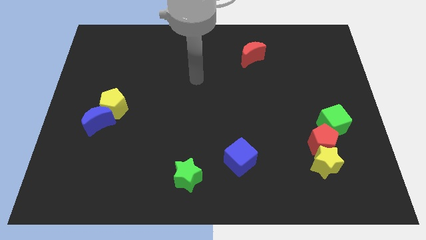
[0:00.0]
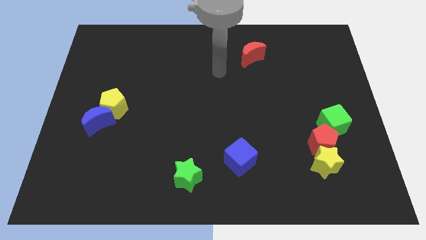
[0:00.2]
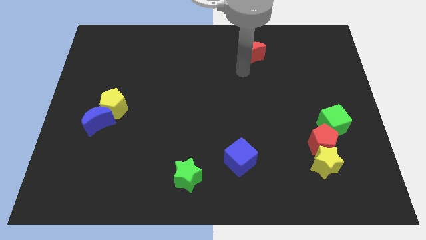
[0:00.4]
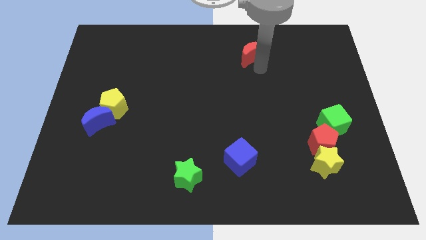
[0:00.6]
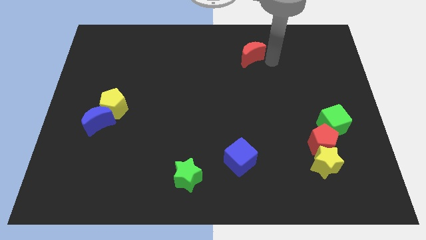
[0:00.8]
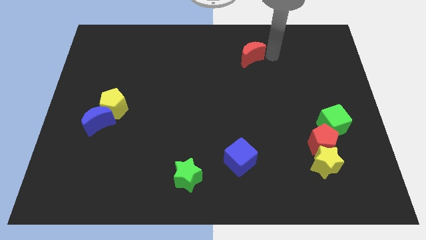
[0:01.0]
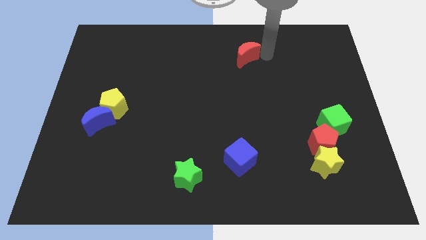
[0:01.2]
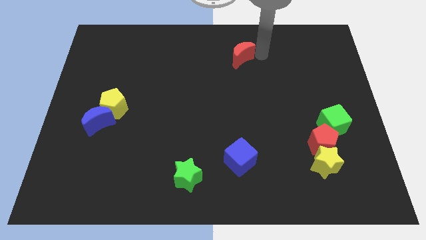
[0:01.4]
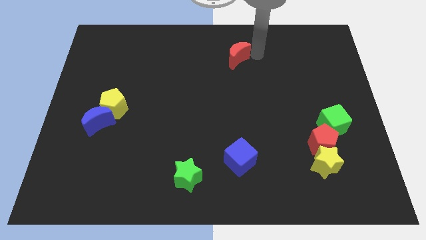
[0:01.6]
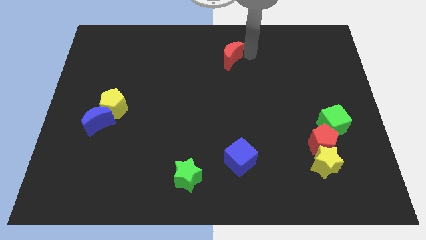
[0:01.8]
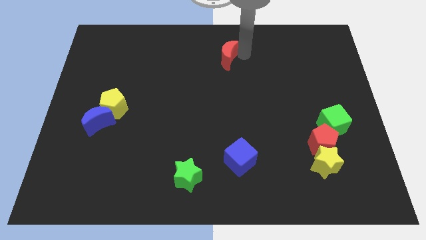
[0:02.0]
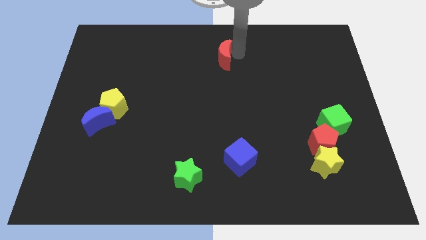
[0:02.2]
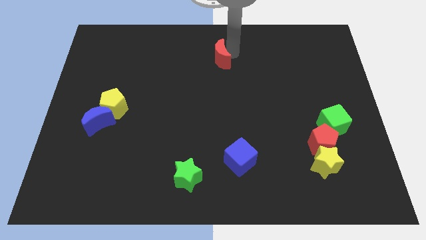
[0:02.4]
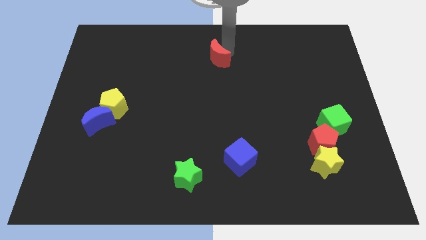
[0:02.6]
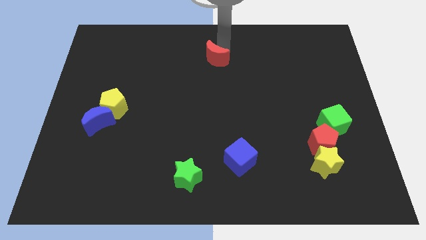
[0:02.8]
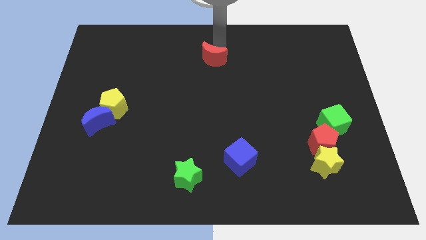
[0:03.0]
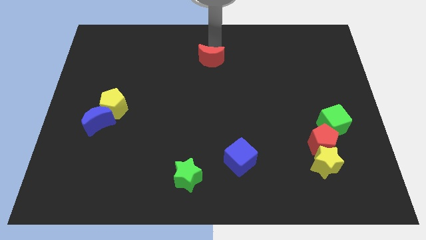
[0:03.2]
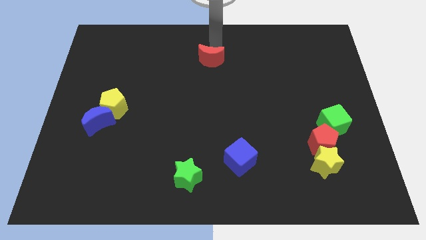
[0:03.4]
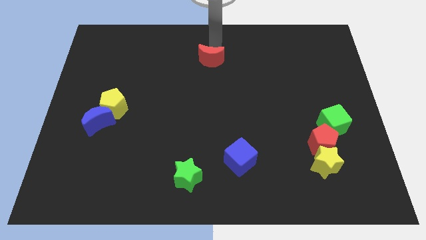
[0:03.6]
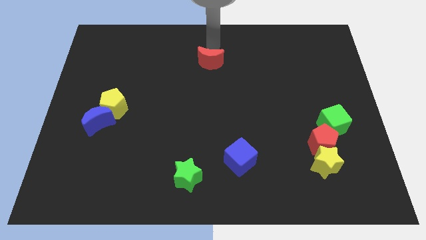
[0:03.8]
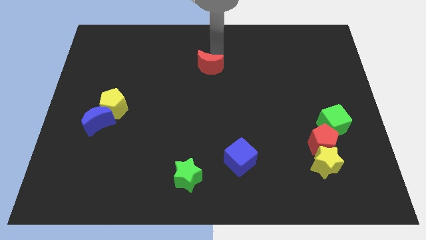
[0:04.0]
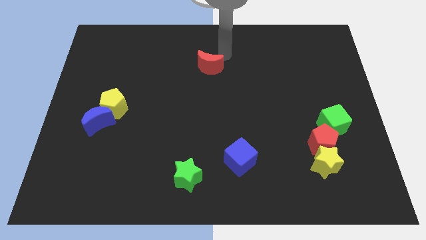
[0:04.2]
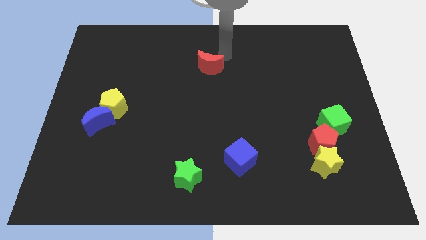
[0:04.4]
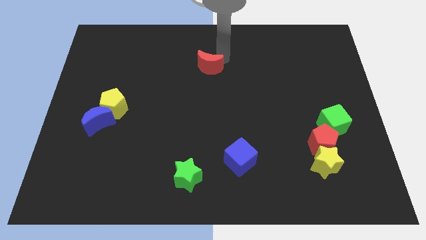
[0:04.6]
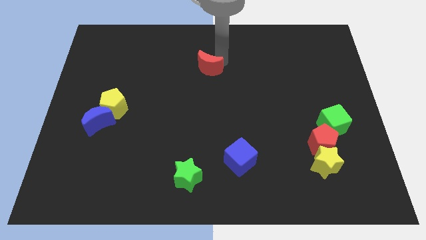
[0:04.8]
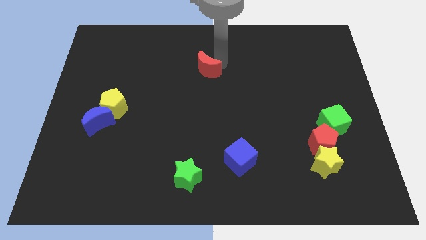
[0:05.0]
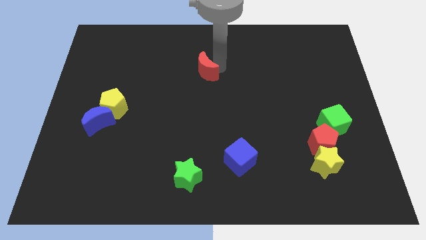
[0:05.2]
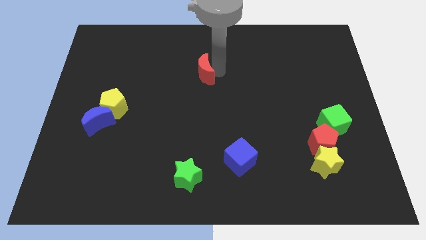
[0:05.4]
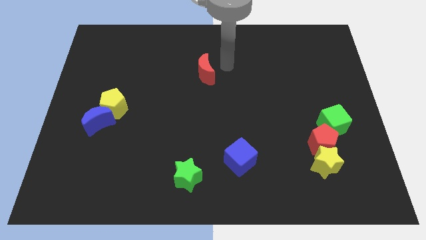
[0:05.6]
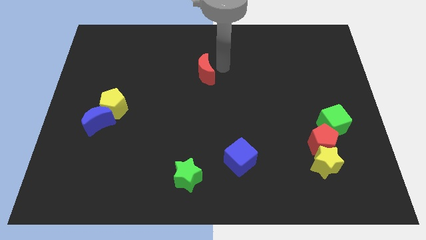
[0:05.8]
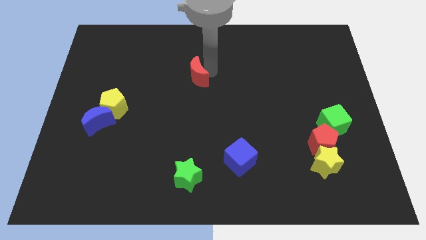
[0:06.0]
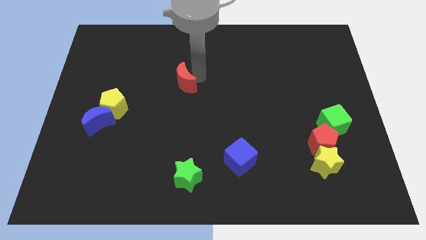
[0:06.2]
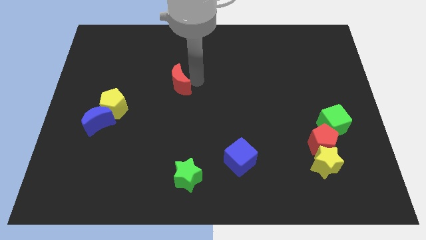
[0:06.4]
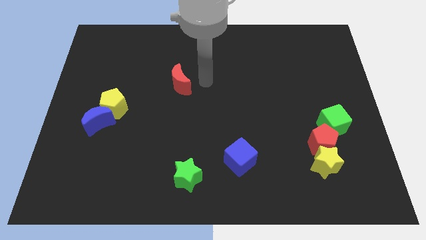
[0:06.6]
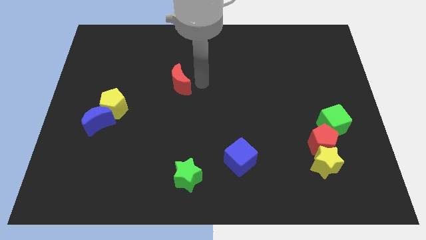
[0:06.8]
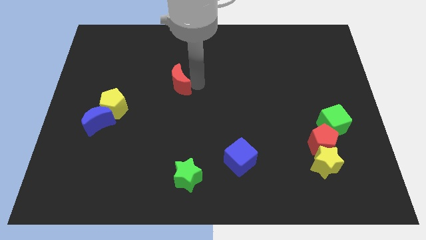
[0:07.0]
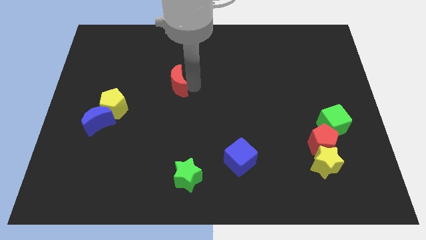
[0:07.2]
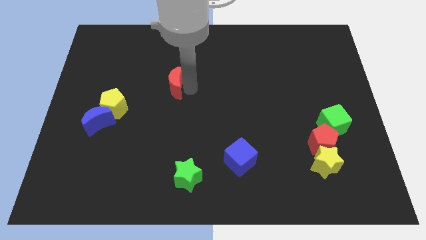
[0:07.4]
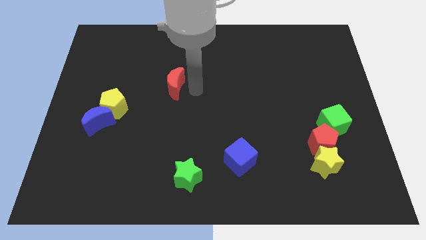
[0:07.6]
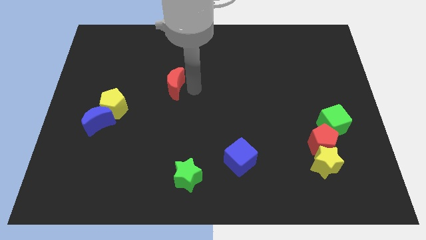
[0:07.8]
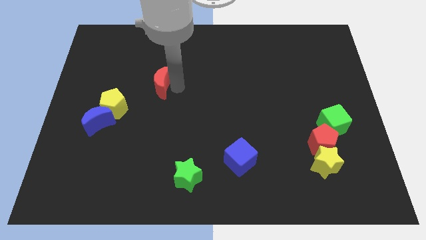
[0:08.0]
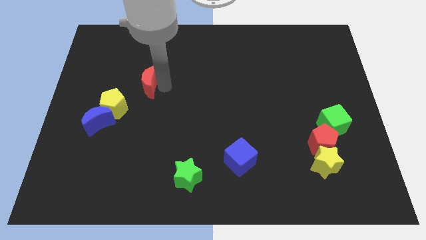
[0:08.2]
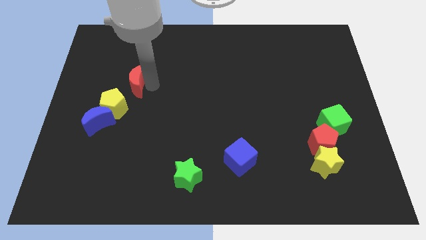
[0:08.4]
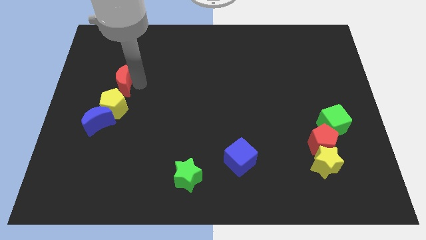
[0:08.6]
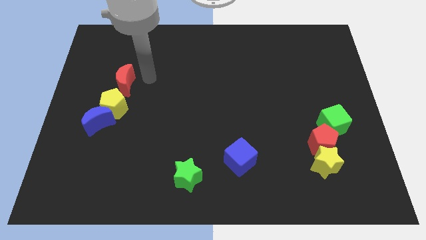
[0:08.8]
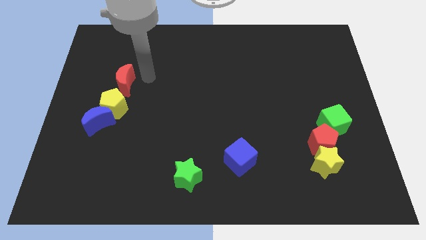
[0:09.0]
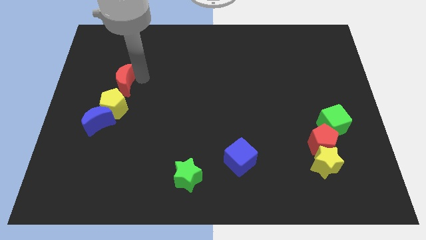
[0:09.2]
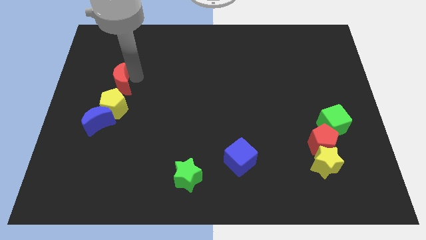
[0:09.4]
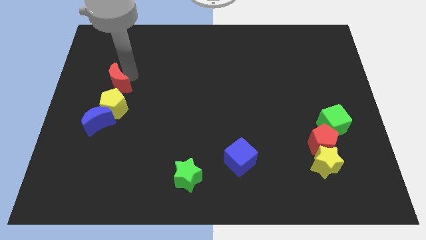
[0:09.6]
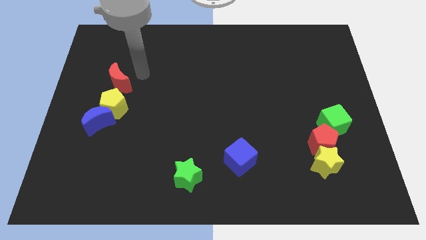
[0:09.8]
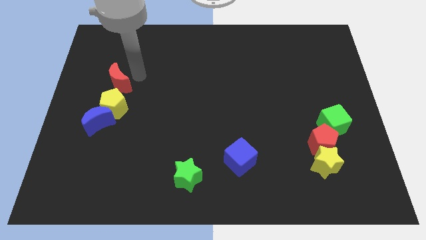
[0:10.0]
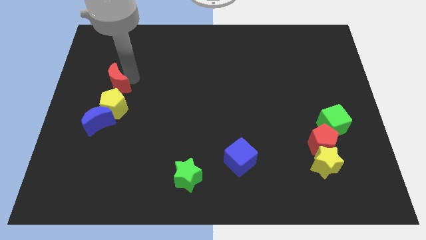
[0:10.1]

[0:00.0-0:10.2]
slide the red moon to the top left side of the yellow pentagon

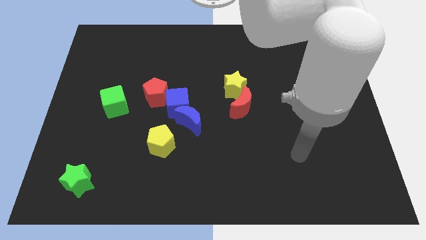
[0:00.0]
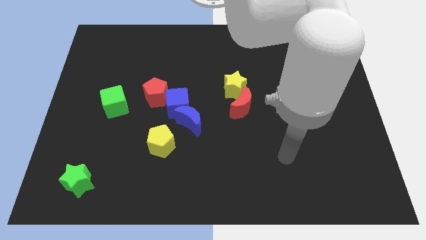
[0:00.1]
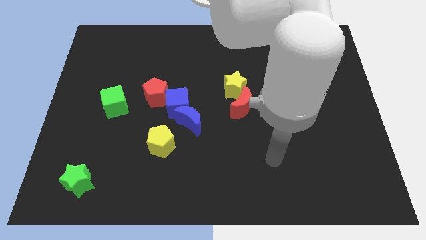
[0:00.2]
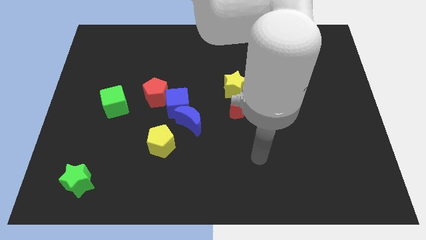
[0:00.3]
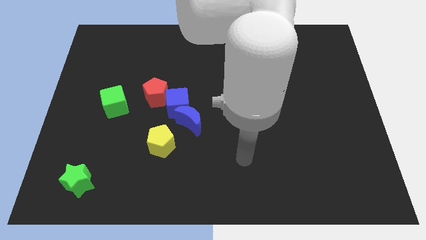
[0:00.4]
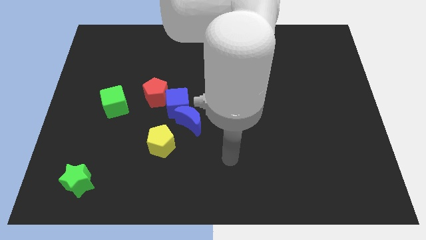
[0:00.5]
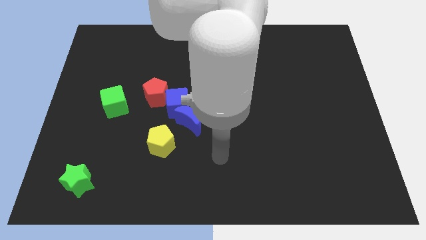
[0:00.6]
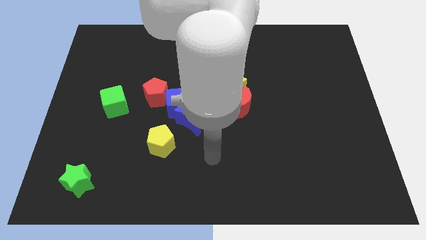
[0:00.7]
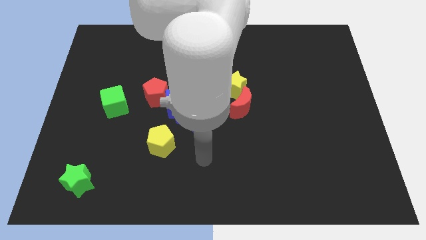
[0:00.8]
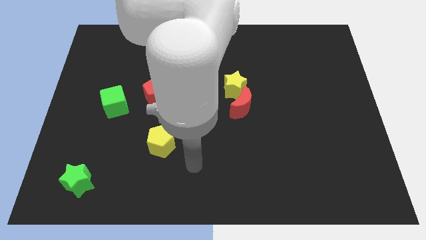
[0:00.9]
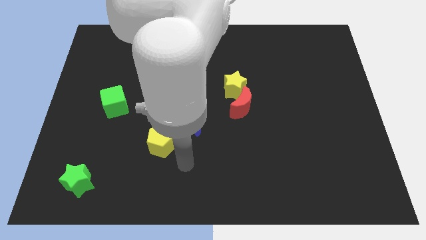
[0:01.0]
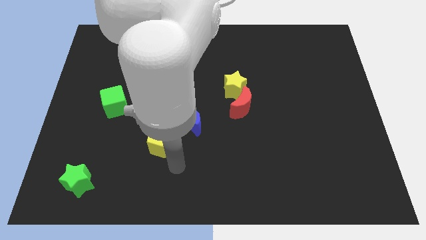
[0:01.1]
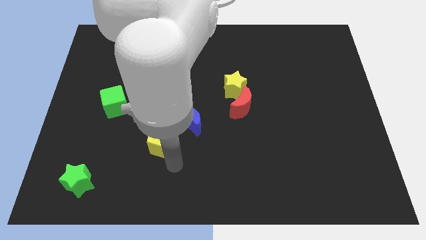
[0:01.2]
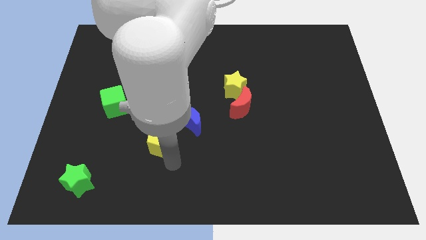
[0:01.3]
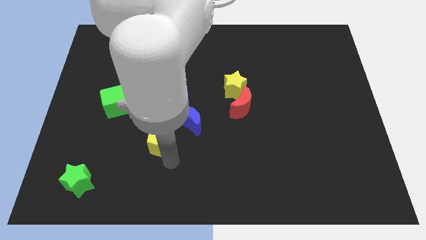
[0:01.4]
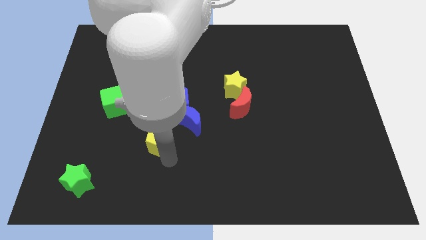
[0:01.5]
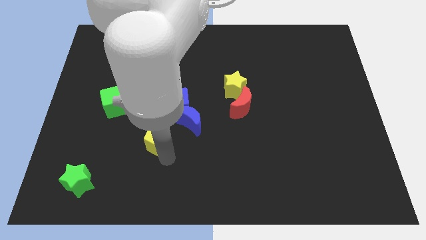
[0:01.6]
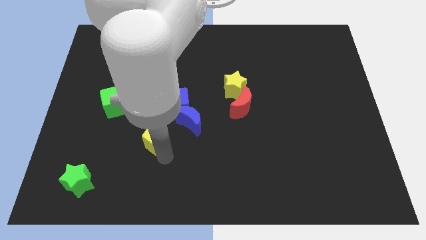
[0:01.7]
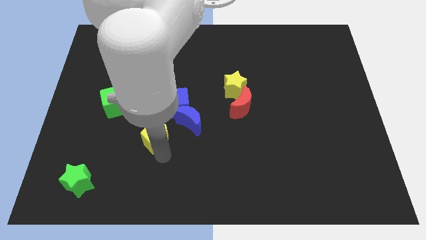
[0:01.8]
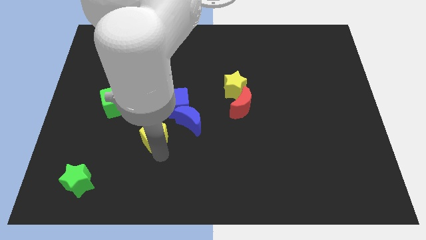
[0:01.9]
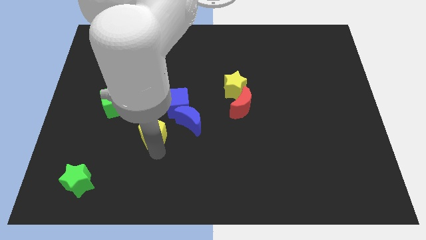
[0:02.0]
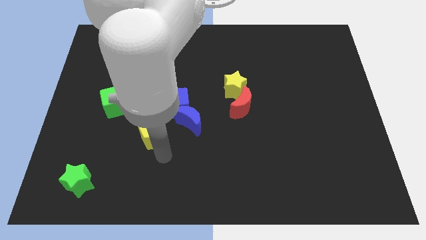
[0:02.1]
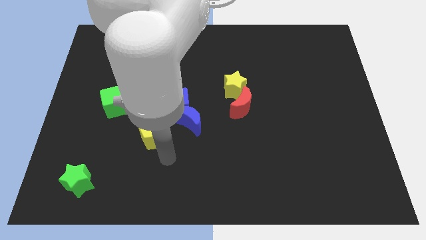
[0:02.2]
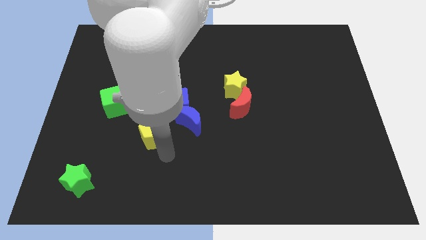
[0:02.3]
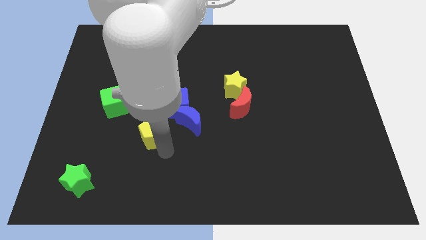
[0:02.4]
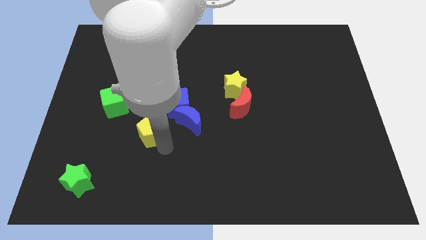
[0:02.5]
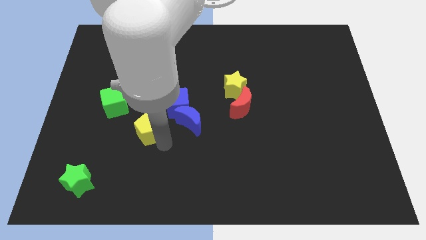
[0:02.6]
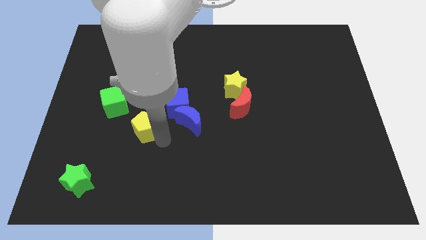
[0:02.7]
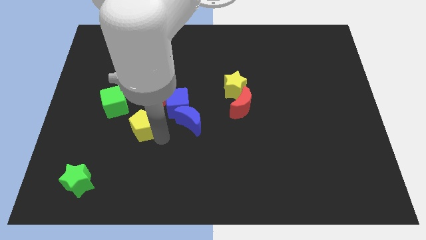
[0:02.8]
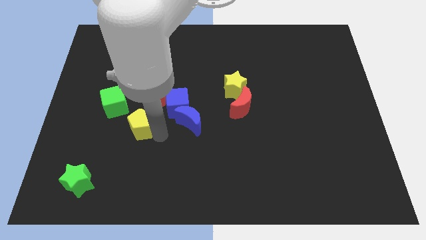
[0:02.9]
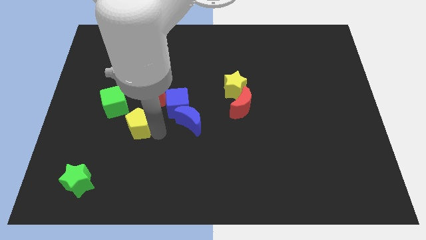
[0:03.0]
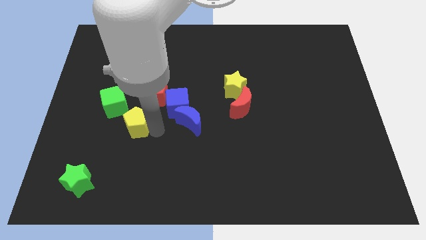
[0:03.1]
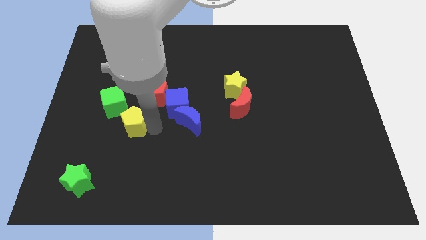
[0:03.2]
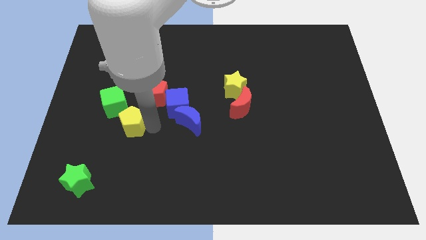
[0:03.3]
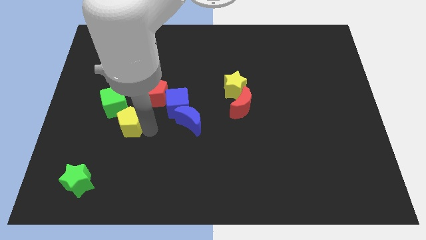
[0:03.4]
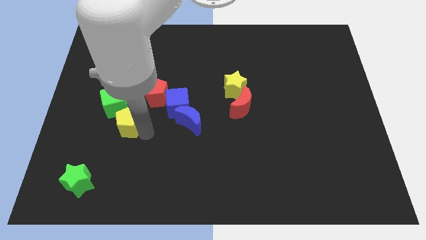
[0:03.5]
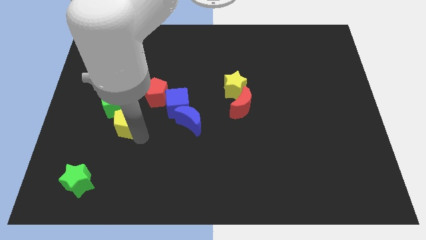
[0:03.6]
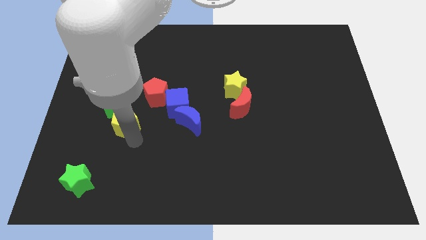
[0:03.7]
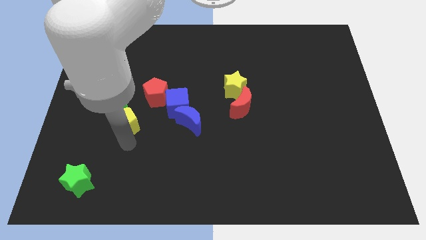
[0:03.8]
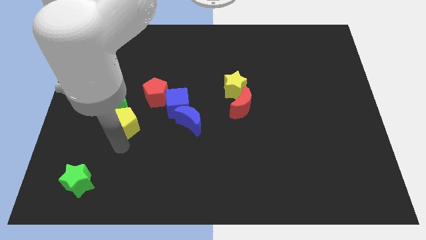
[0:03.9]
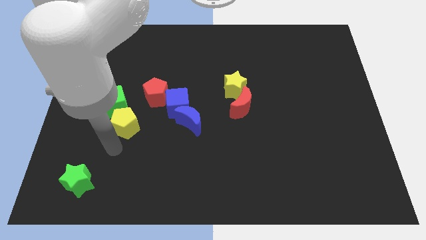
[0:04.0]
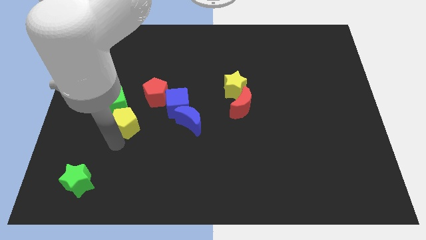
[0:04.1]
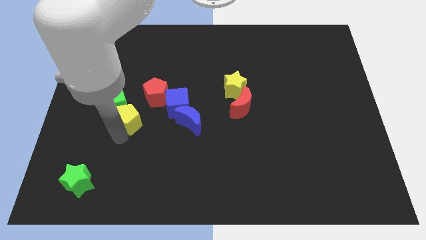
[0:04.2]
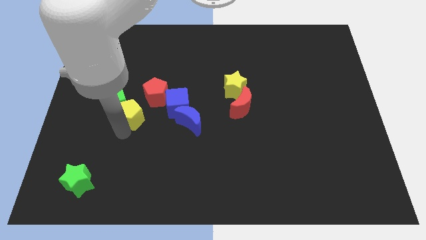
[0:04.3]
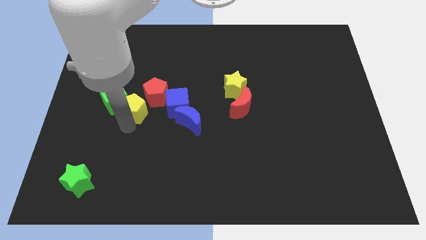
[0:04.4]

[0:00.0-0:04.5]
move the yellow pentagon to the left side of the red pentagon
